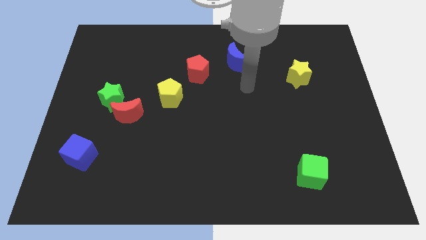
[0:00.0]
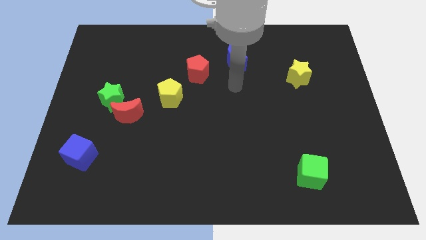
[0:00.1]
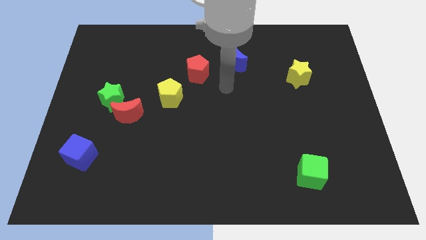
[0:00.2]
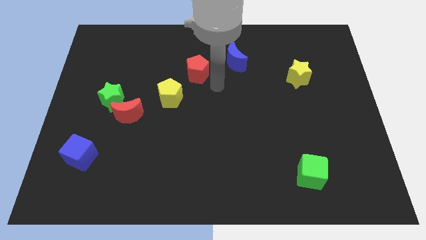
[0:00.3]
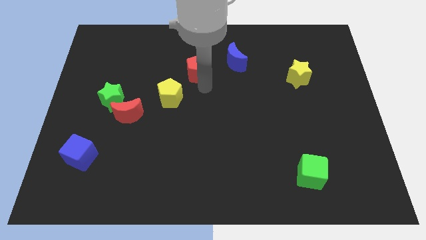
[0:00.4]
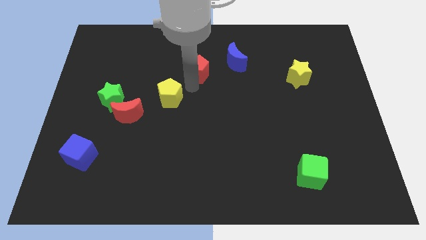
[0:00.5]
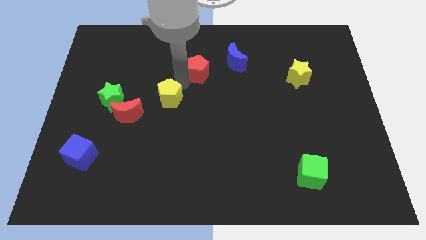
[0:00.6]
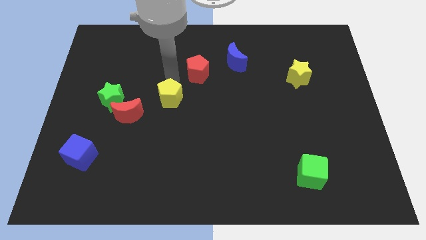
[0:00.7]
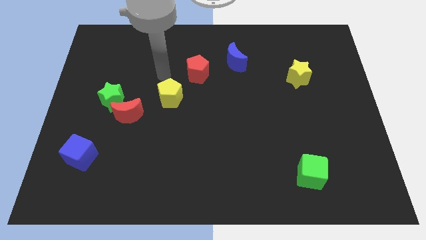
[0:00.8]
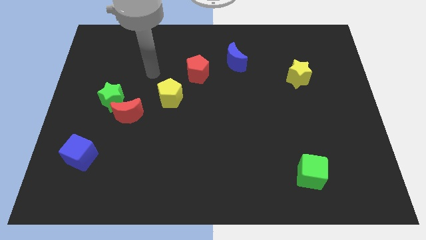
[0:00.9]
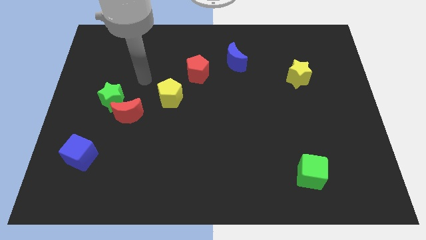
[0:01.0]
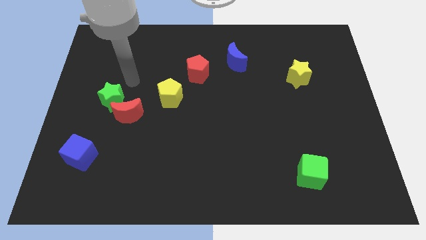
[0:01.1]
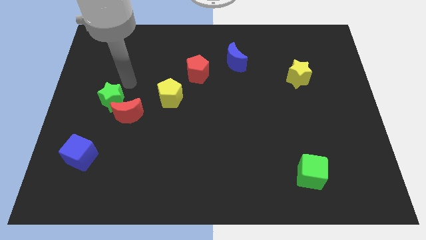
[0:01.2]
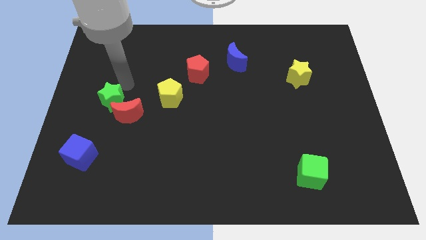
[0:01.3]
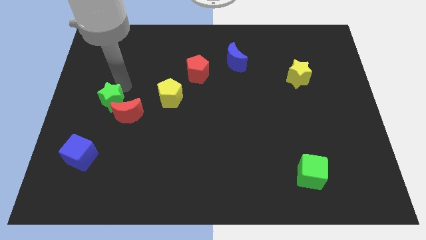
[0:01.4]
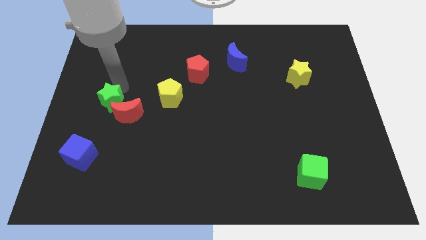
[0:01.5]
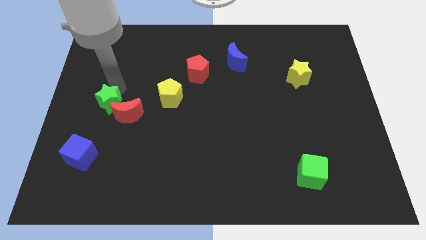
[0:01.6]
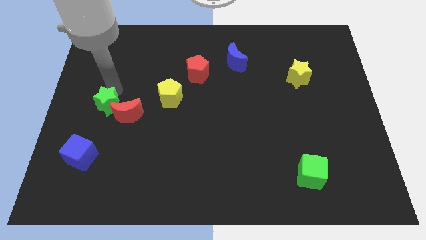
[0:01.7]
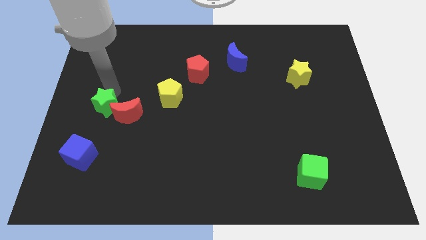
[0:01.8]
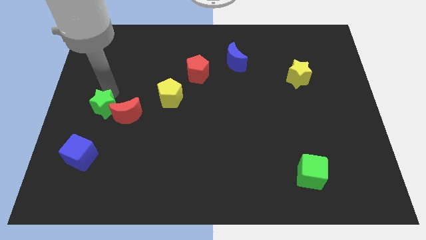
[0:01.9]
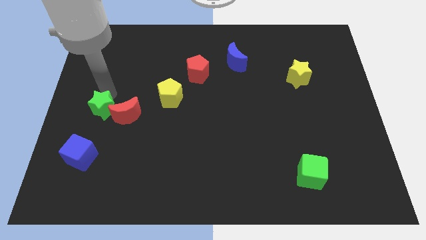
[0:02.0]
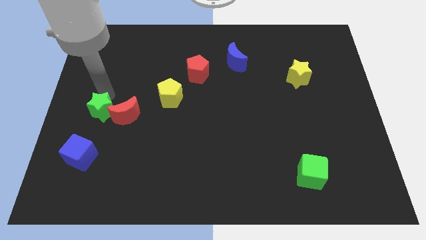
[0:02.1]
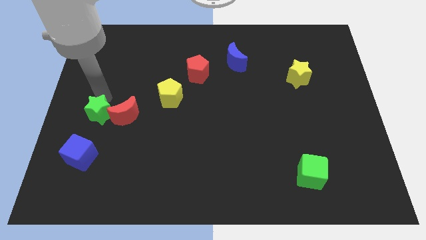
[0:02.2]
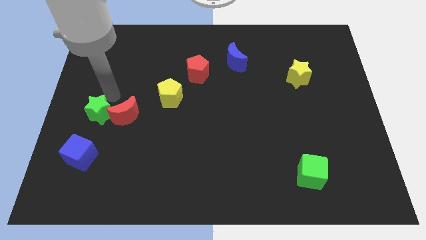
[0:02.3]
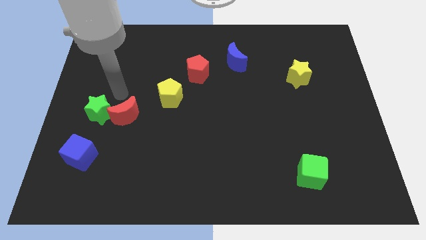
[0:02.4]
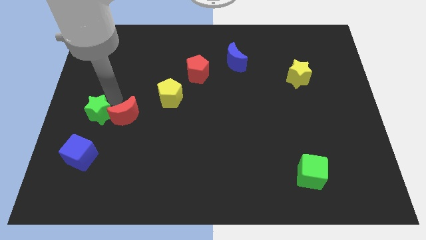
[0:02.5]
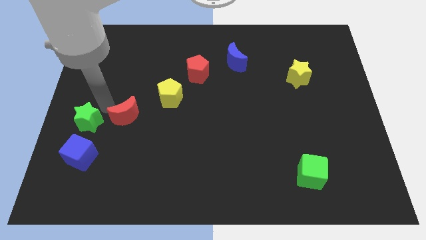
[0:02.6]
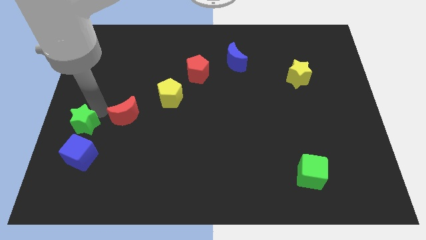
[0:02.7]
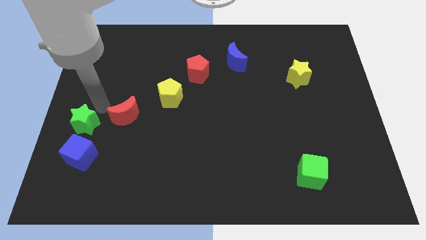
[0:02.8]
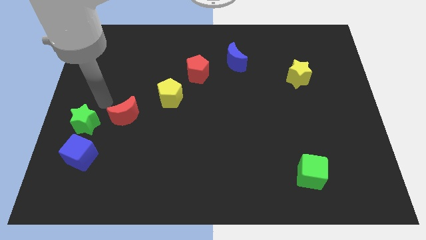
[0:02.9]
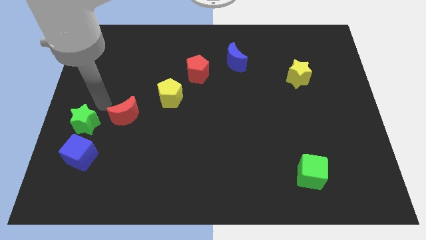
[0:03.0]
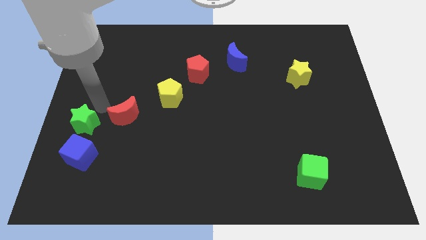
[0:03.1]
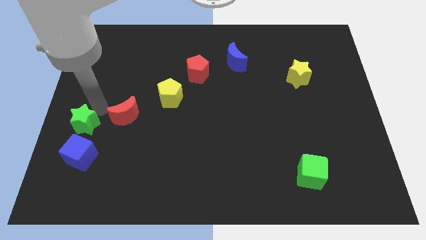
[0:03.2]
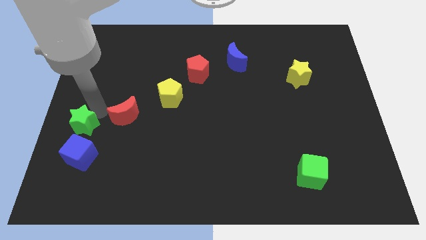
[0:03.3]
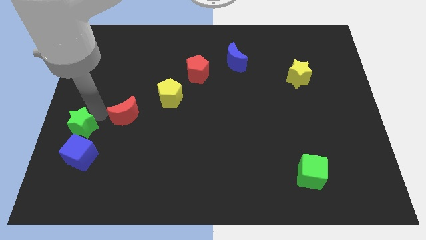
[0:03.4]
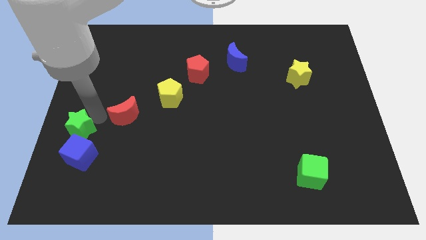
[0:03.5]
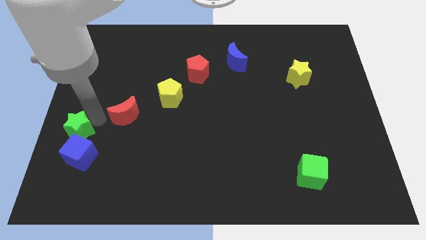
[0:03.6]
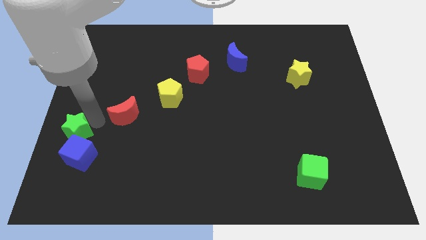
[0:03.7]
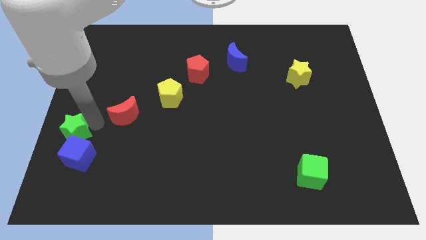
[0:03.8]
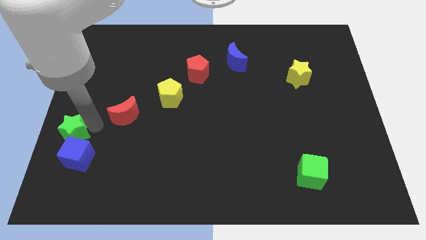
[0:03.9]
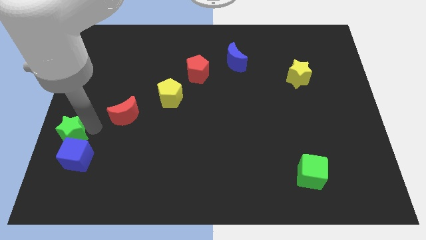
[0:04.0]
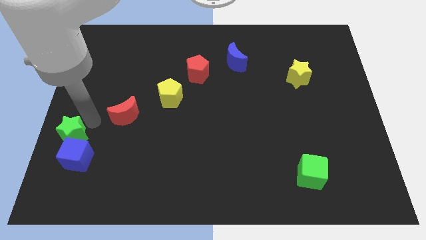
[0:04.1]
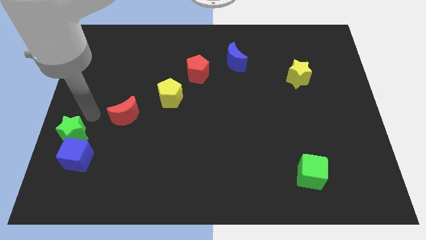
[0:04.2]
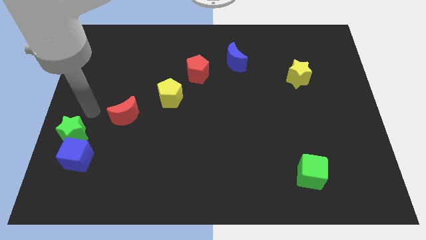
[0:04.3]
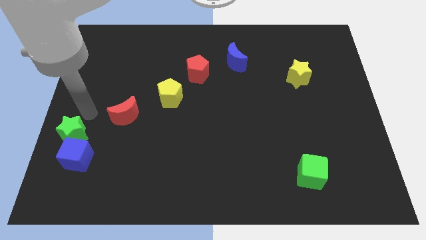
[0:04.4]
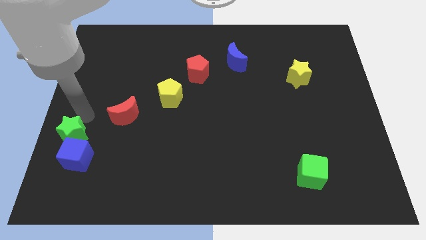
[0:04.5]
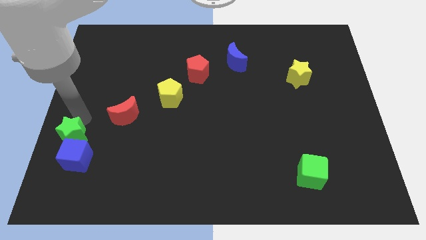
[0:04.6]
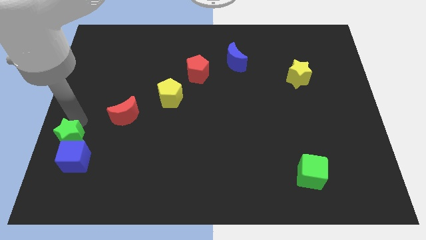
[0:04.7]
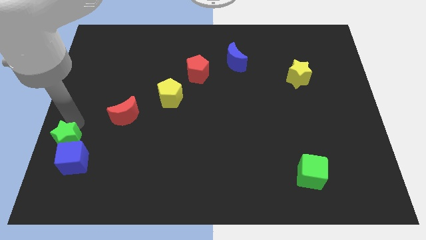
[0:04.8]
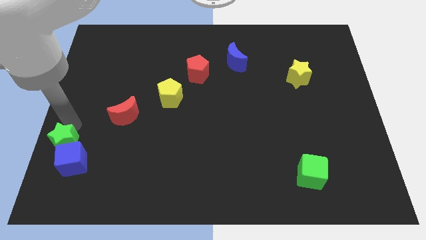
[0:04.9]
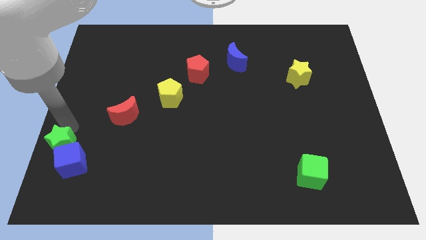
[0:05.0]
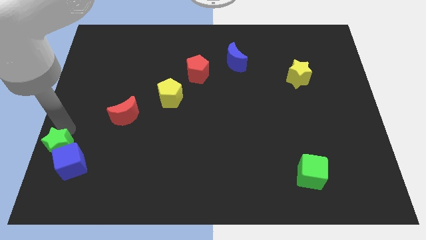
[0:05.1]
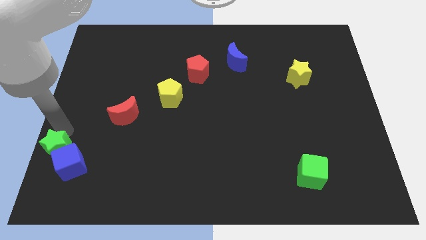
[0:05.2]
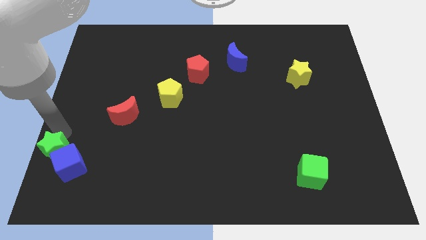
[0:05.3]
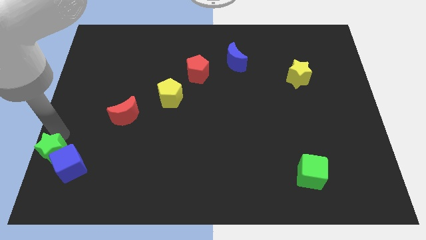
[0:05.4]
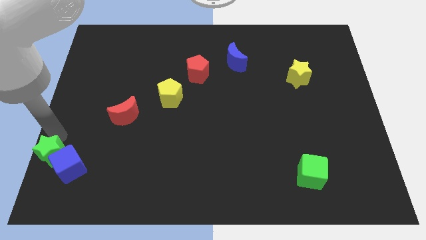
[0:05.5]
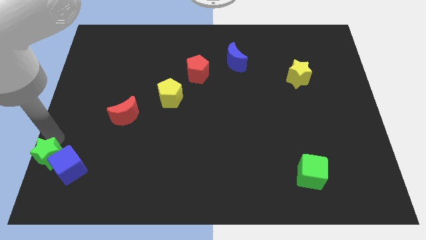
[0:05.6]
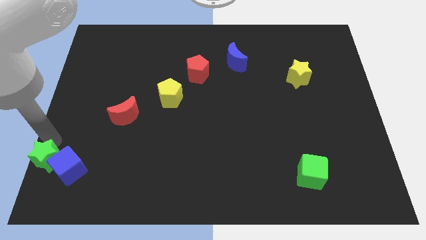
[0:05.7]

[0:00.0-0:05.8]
put the green star to the bottom left

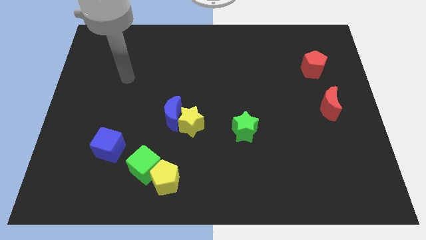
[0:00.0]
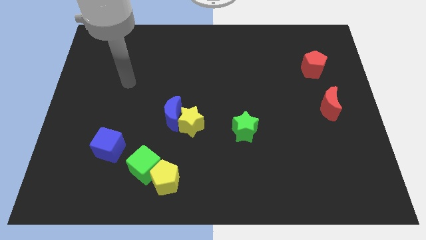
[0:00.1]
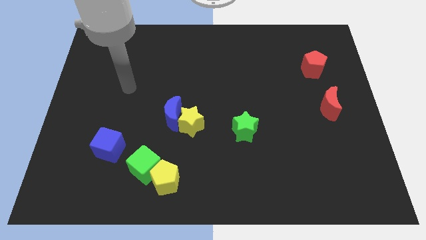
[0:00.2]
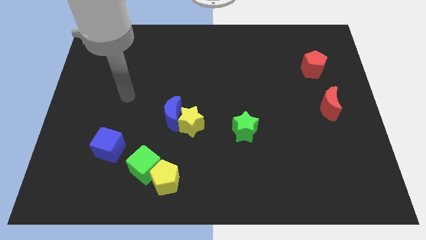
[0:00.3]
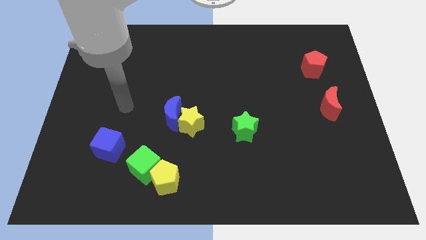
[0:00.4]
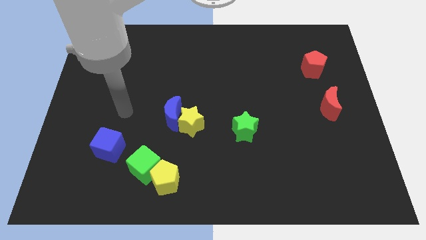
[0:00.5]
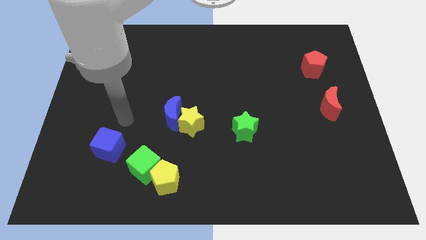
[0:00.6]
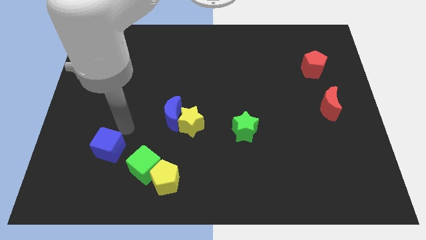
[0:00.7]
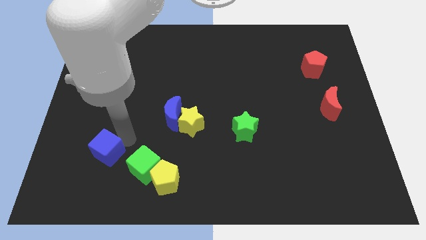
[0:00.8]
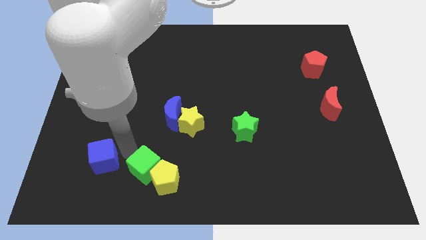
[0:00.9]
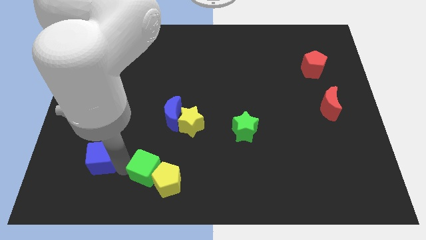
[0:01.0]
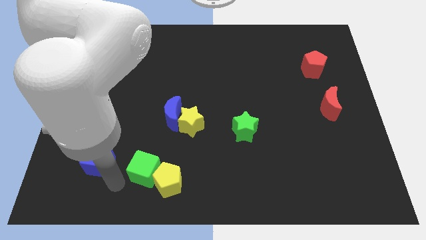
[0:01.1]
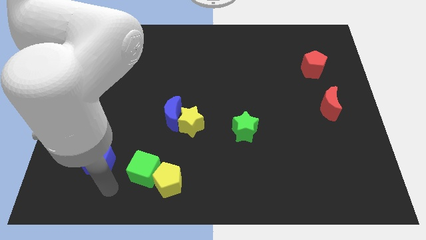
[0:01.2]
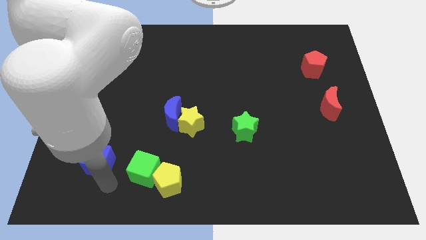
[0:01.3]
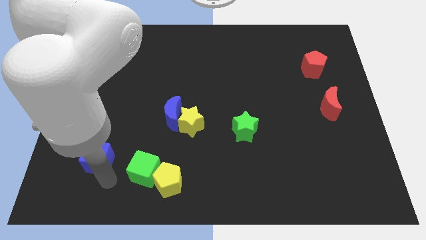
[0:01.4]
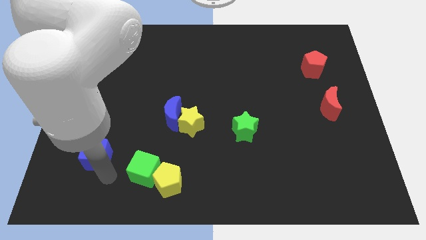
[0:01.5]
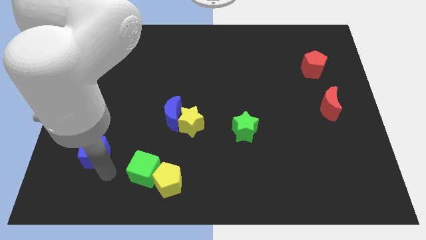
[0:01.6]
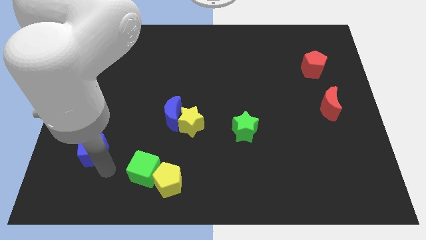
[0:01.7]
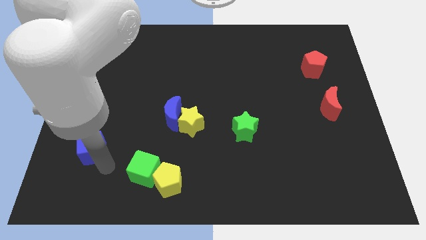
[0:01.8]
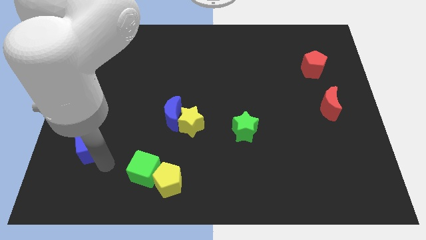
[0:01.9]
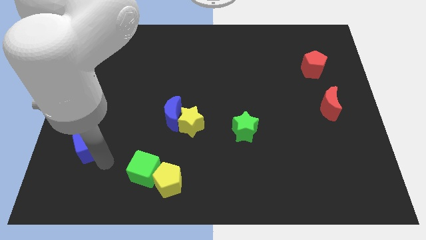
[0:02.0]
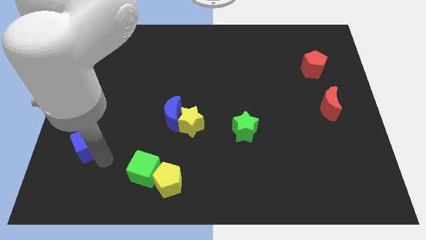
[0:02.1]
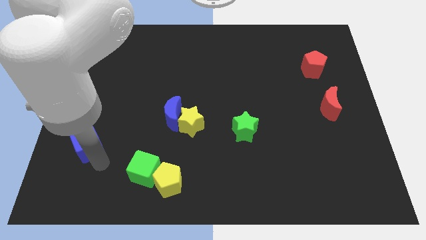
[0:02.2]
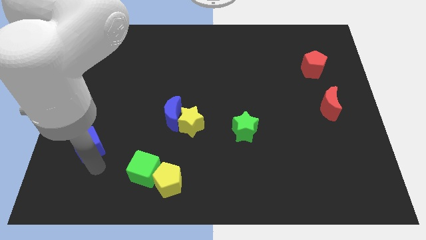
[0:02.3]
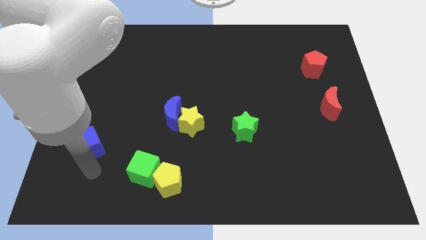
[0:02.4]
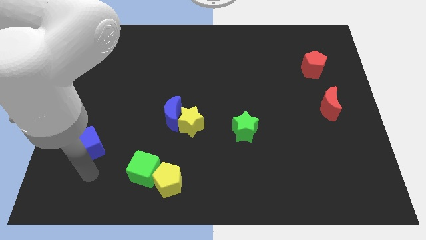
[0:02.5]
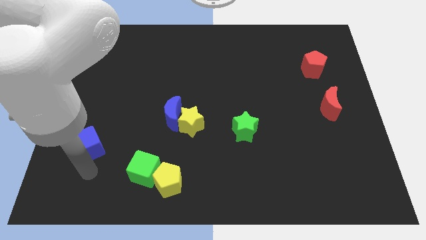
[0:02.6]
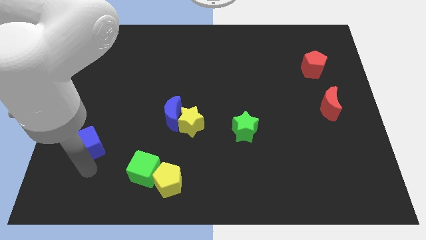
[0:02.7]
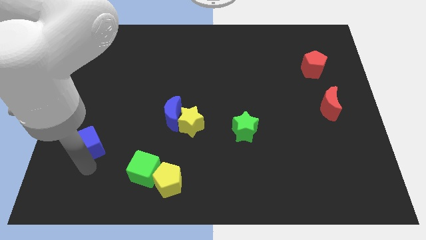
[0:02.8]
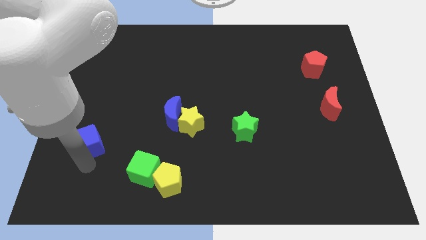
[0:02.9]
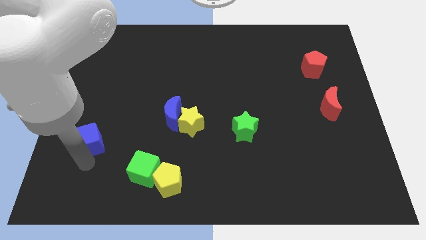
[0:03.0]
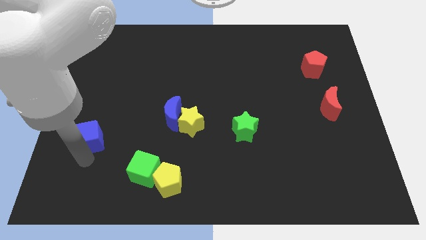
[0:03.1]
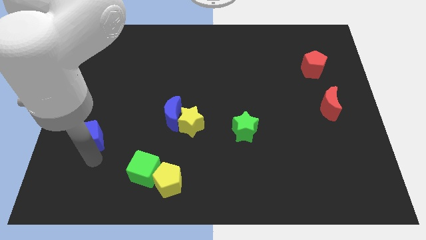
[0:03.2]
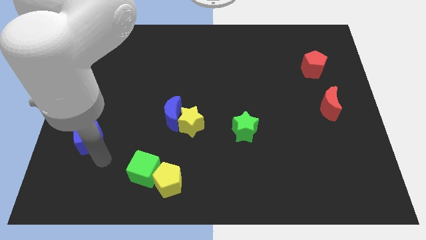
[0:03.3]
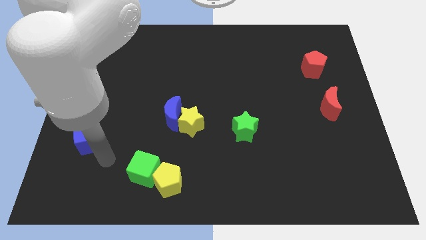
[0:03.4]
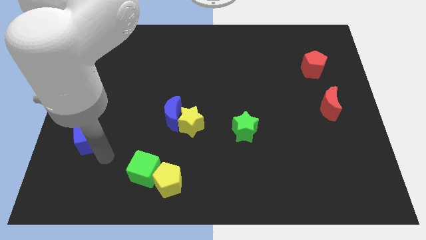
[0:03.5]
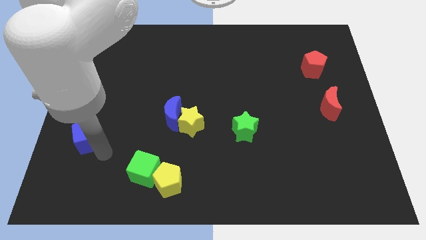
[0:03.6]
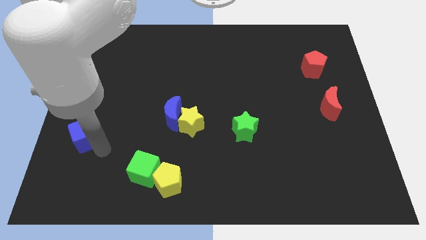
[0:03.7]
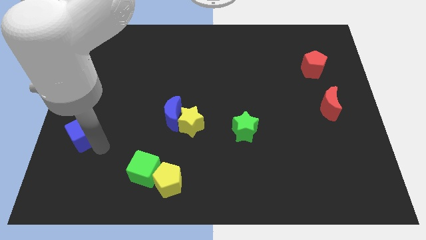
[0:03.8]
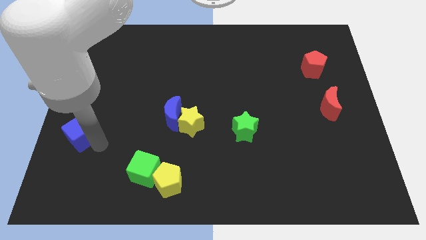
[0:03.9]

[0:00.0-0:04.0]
push the blue cube to the center left
